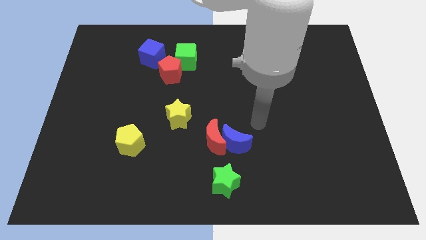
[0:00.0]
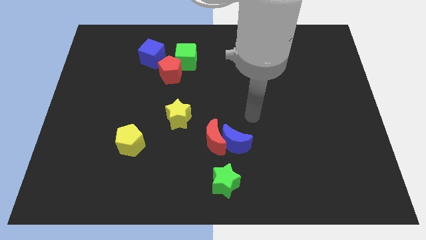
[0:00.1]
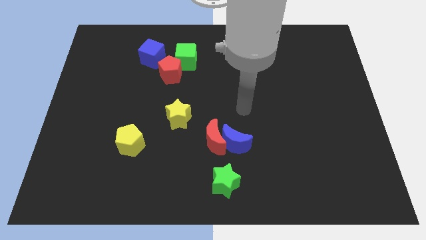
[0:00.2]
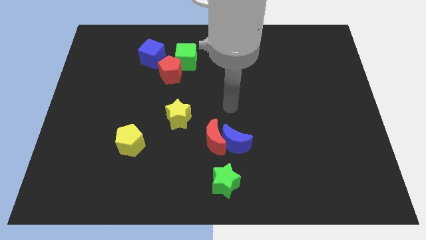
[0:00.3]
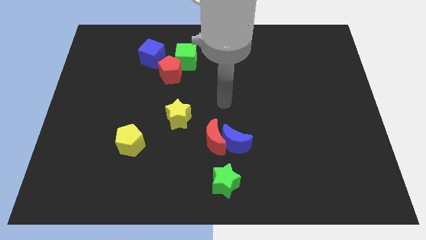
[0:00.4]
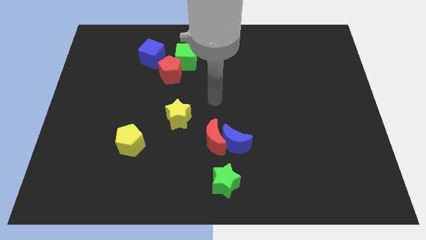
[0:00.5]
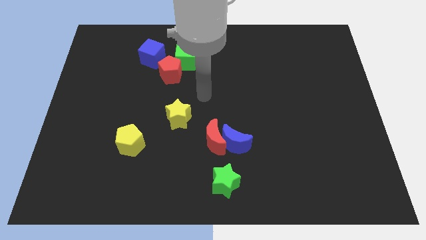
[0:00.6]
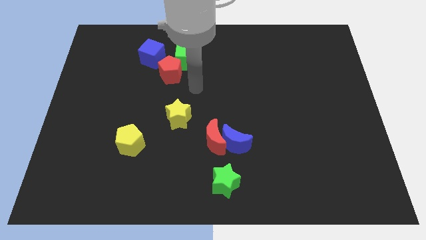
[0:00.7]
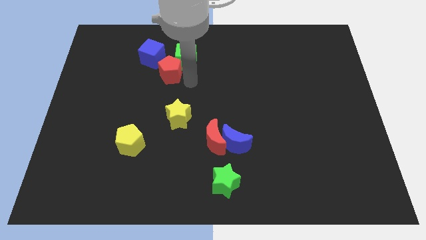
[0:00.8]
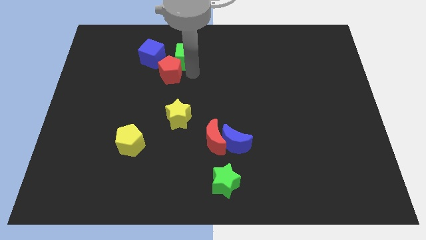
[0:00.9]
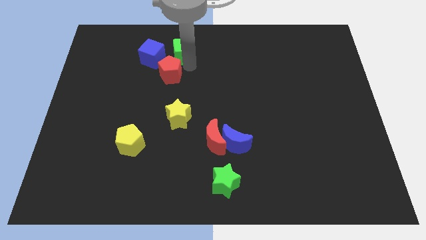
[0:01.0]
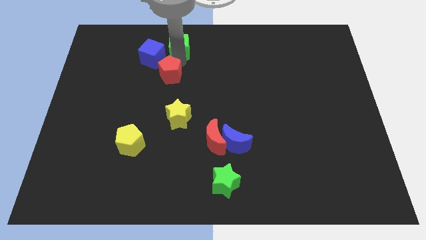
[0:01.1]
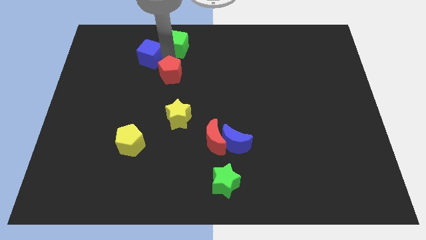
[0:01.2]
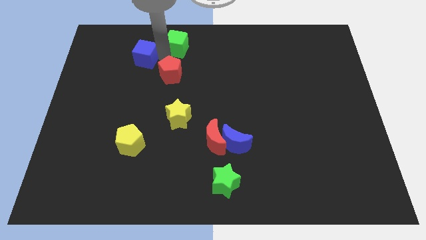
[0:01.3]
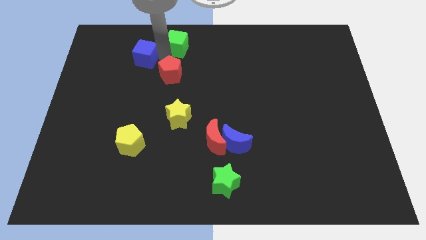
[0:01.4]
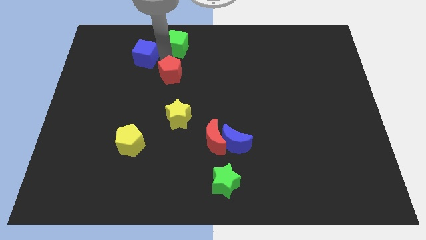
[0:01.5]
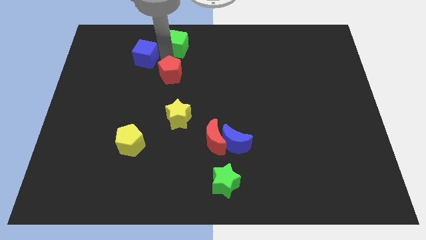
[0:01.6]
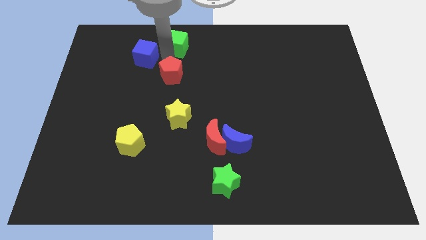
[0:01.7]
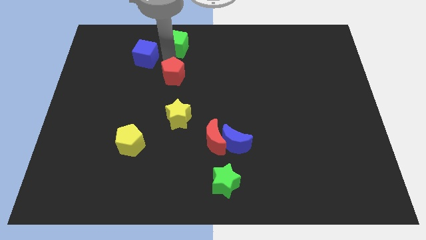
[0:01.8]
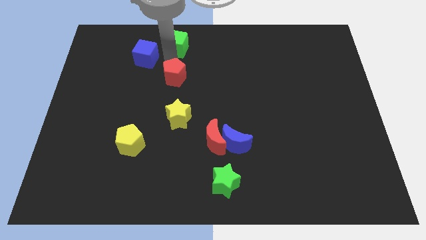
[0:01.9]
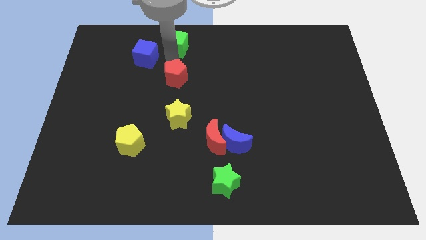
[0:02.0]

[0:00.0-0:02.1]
move the red pentagon away from the green cube and blue cube

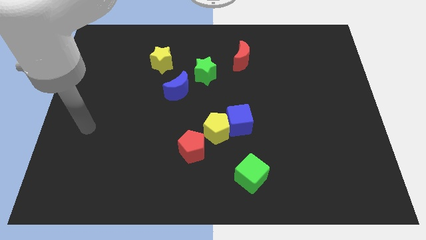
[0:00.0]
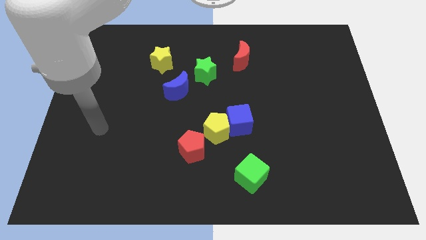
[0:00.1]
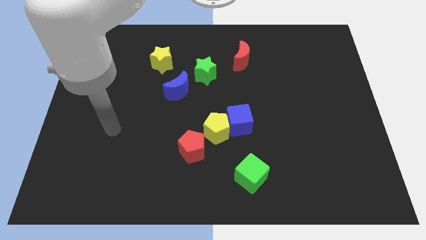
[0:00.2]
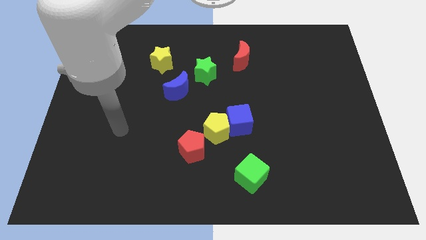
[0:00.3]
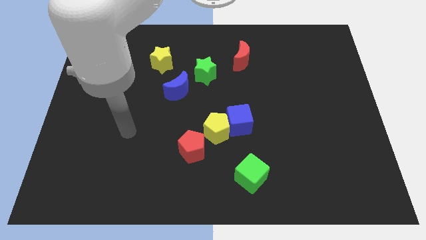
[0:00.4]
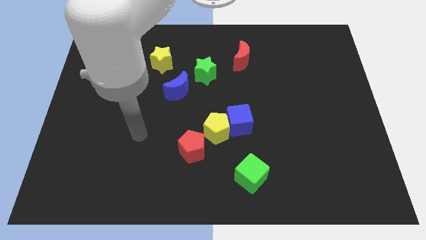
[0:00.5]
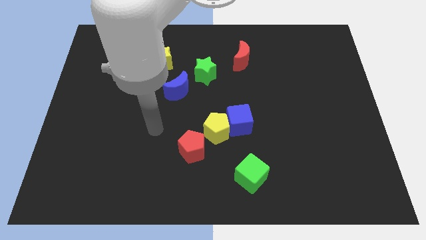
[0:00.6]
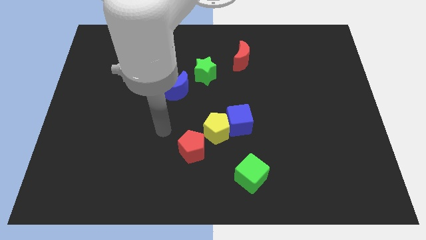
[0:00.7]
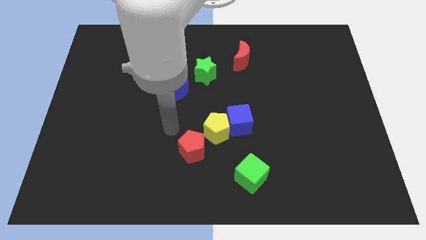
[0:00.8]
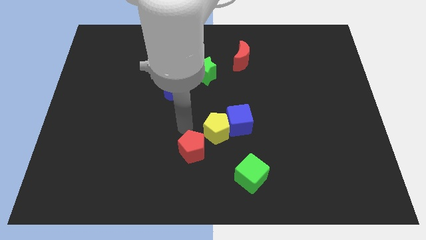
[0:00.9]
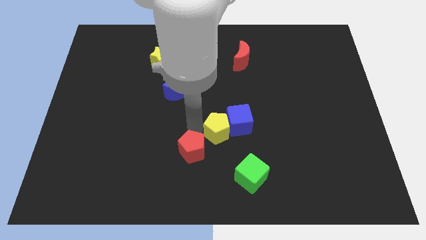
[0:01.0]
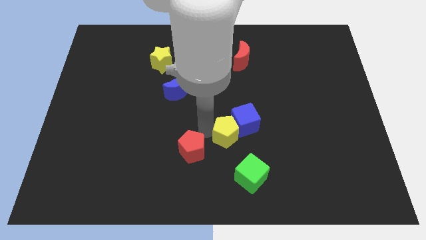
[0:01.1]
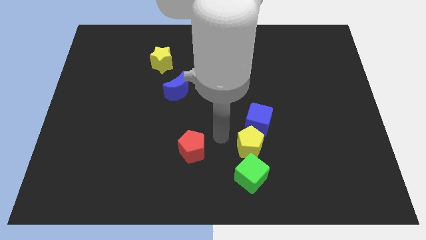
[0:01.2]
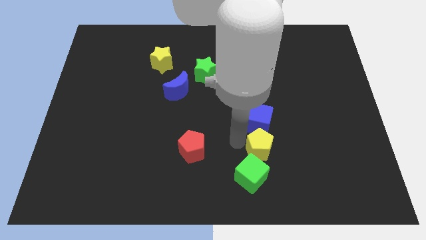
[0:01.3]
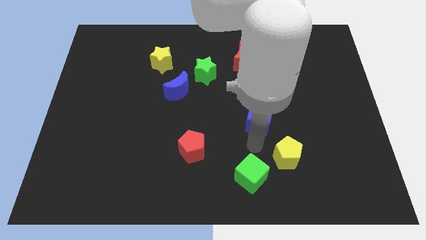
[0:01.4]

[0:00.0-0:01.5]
move the blue cube away from the yellow pentagon

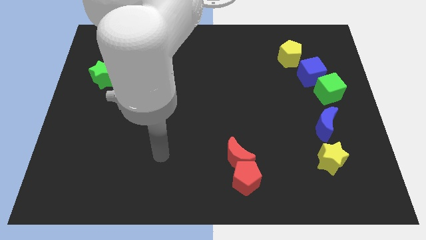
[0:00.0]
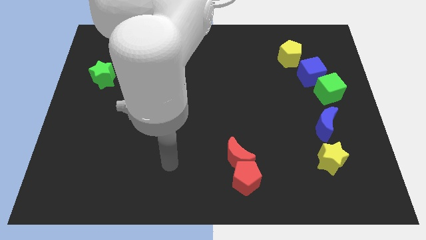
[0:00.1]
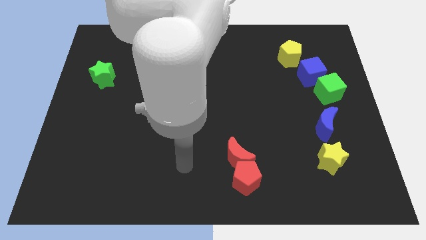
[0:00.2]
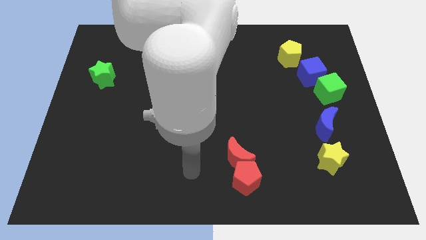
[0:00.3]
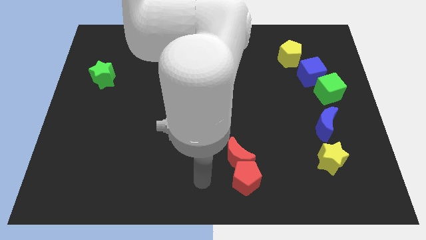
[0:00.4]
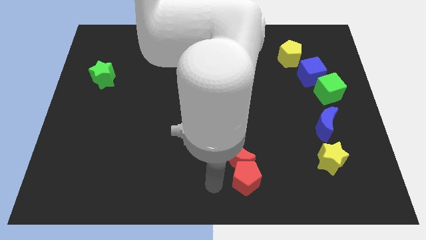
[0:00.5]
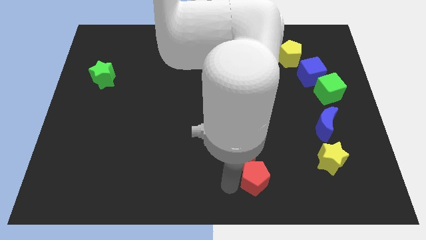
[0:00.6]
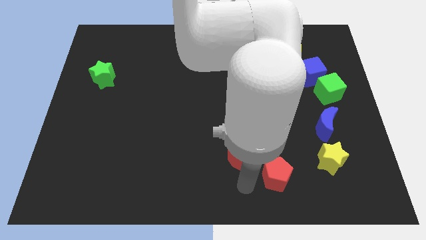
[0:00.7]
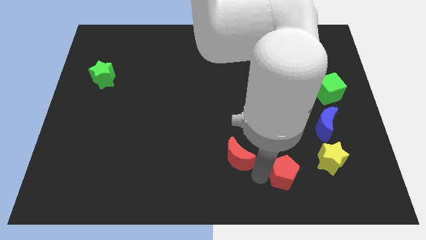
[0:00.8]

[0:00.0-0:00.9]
pull the red moon apart from the red pentagon

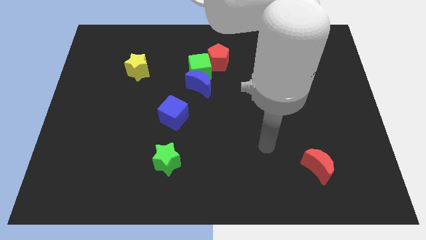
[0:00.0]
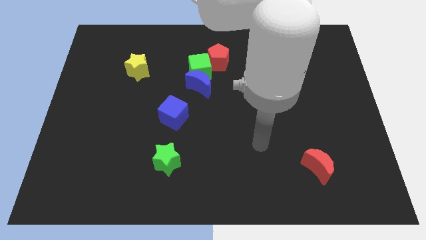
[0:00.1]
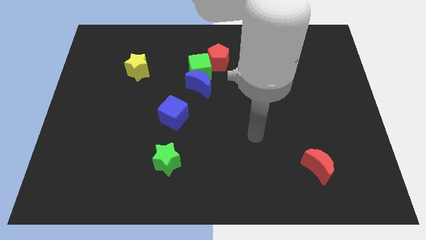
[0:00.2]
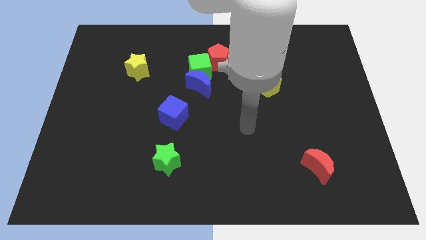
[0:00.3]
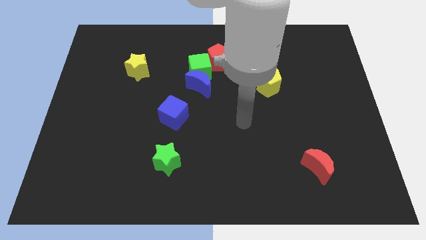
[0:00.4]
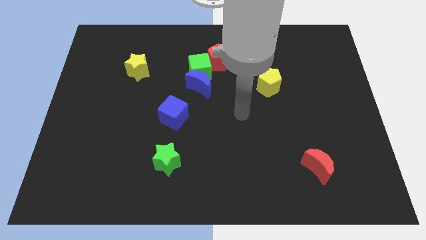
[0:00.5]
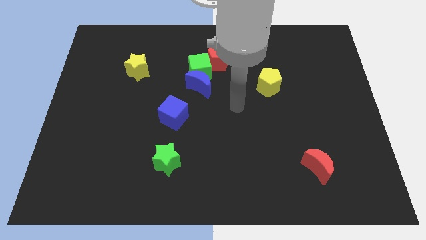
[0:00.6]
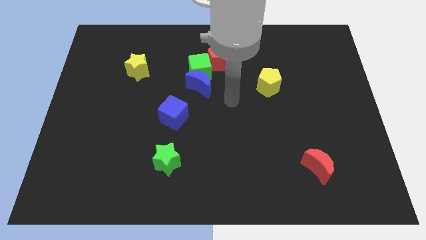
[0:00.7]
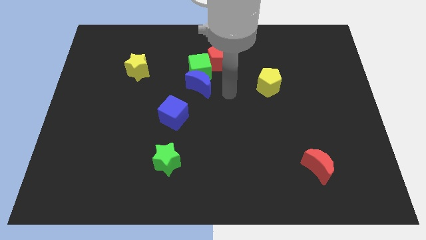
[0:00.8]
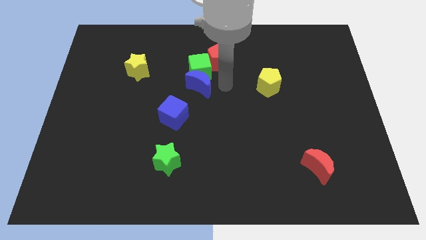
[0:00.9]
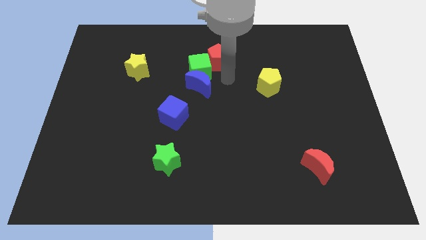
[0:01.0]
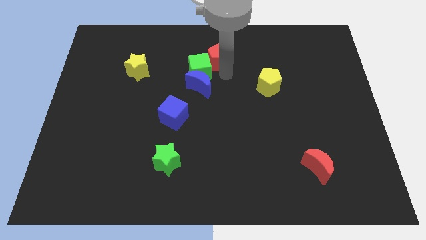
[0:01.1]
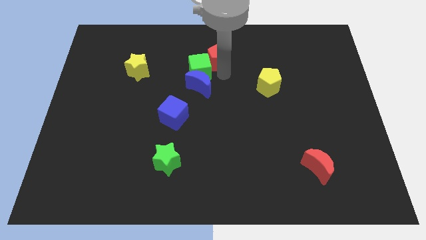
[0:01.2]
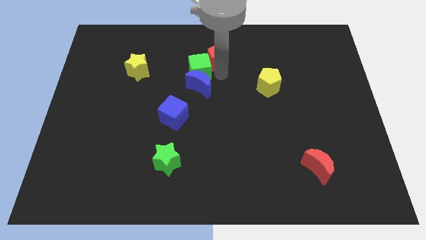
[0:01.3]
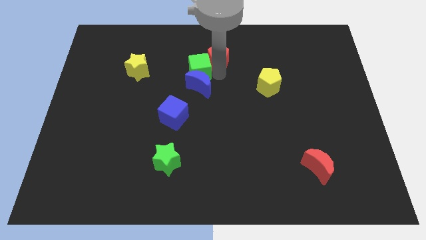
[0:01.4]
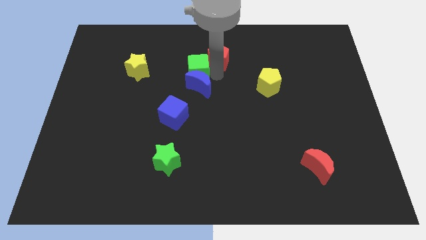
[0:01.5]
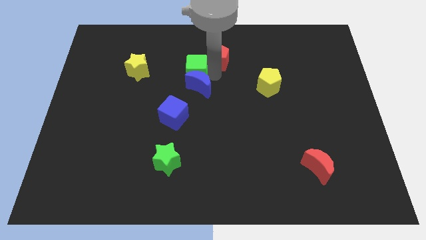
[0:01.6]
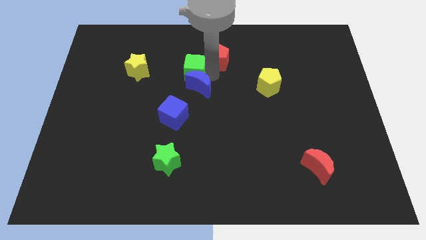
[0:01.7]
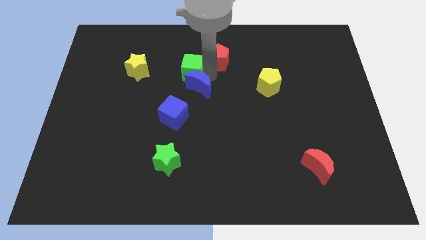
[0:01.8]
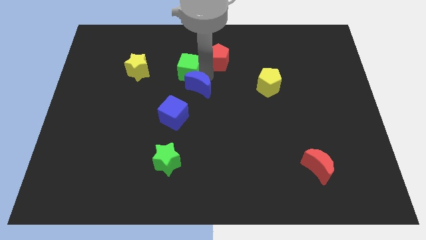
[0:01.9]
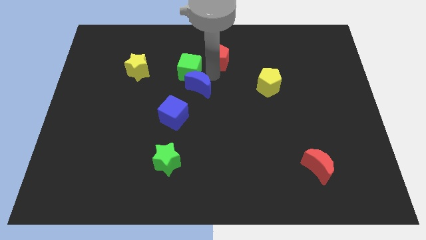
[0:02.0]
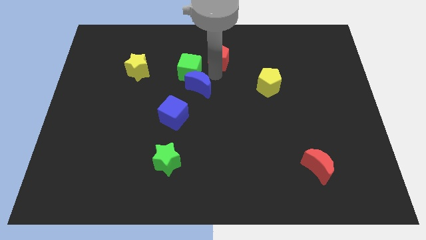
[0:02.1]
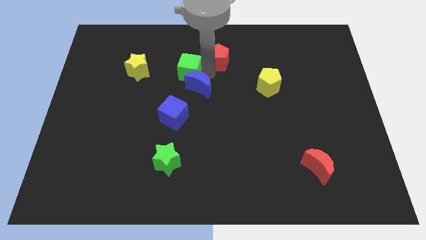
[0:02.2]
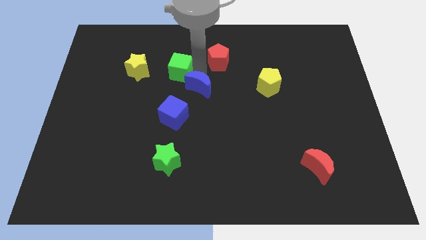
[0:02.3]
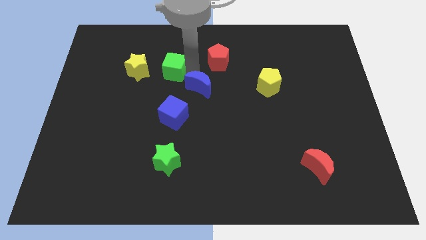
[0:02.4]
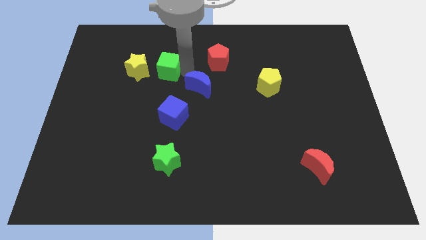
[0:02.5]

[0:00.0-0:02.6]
move the green cube away from the blue moon and red pentagon

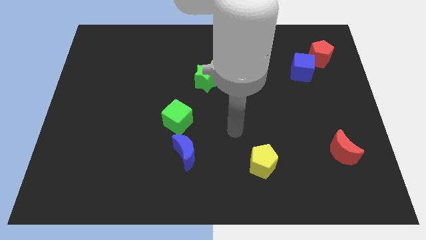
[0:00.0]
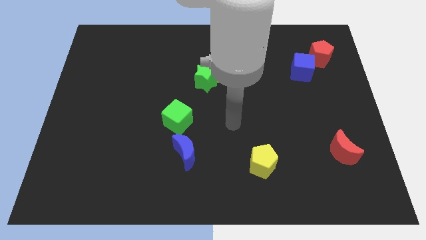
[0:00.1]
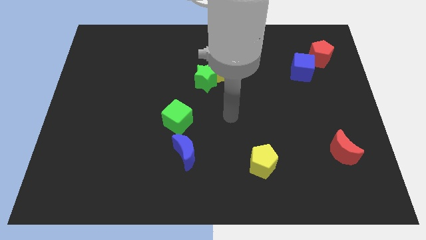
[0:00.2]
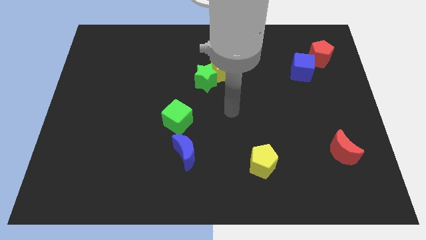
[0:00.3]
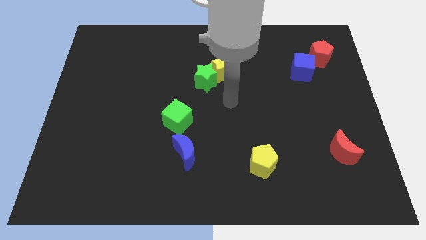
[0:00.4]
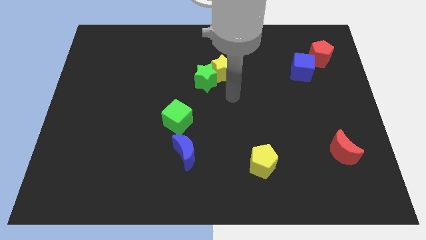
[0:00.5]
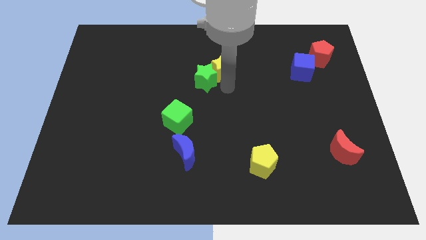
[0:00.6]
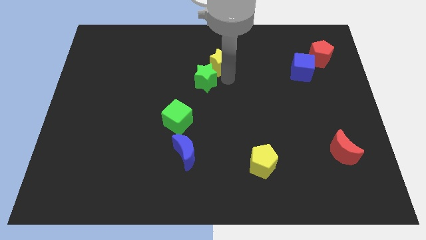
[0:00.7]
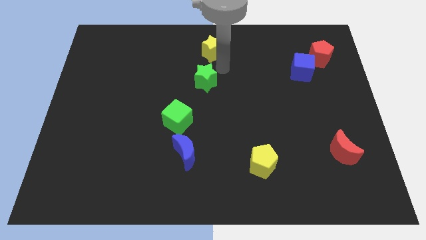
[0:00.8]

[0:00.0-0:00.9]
move the green star away from the yellow star

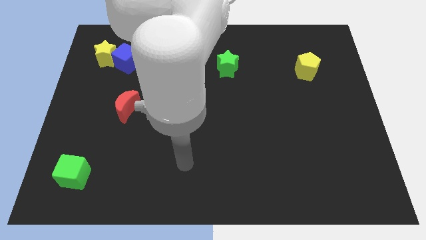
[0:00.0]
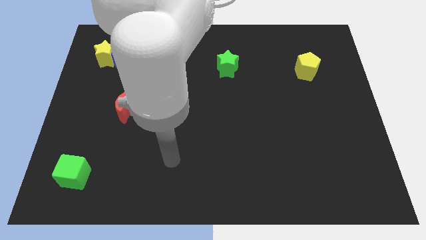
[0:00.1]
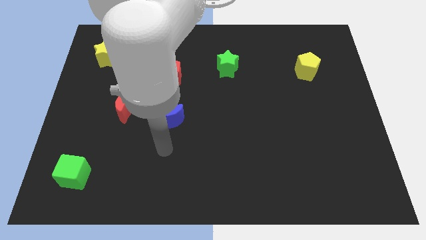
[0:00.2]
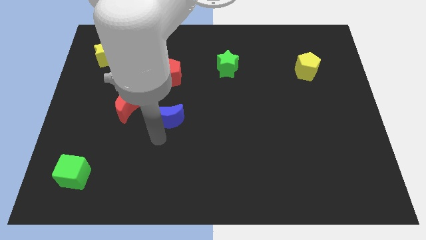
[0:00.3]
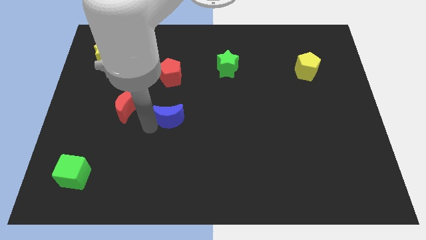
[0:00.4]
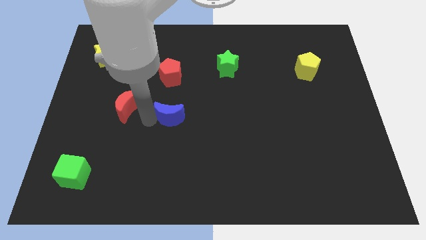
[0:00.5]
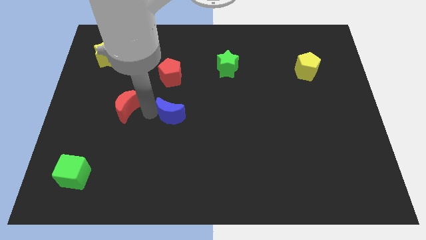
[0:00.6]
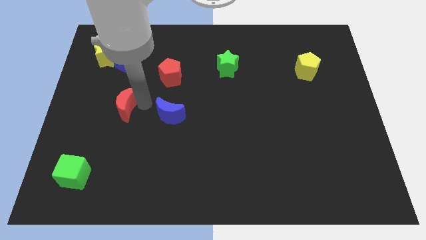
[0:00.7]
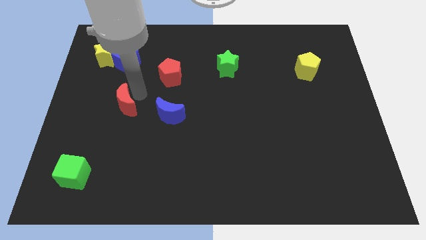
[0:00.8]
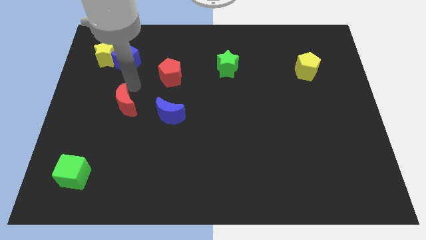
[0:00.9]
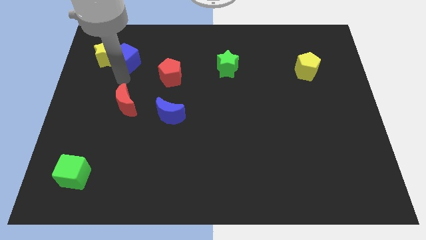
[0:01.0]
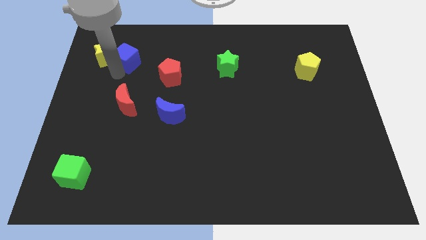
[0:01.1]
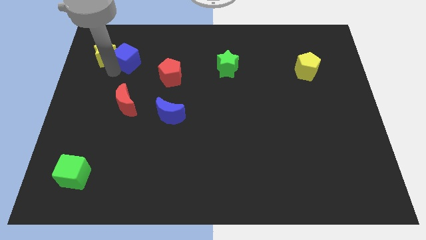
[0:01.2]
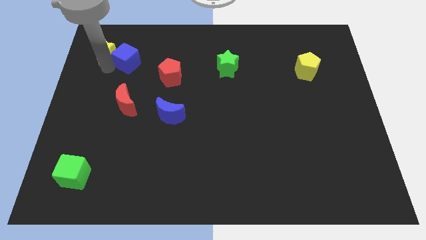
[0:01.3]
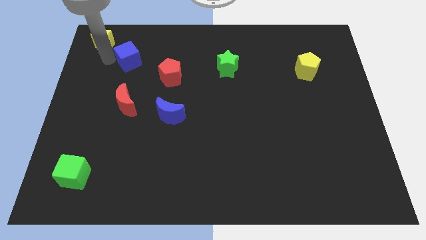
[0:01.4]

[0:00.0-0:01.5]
separate the blue cube from the yellow star
